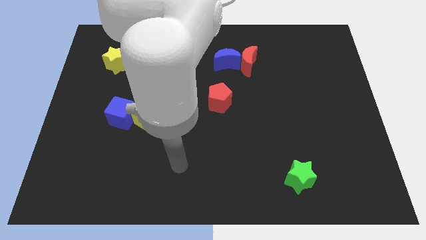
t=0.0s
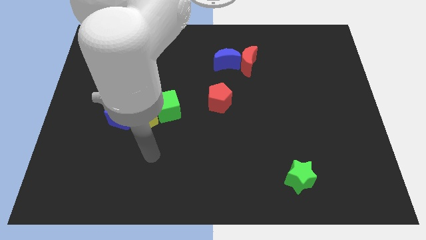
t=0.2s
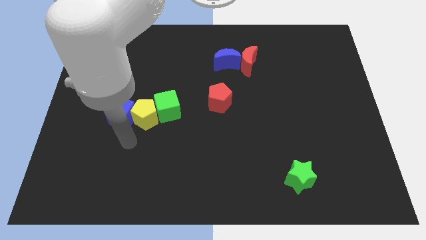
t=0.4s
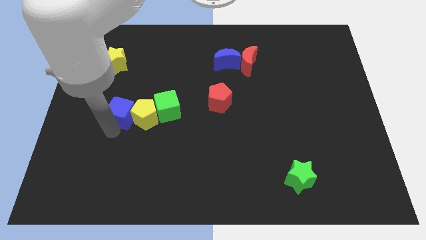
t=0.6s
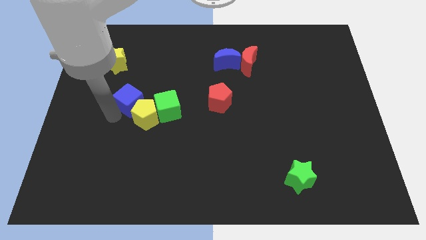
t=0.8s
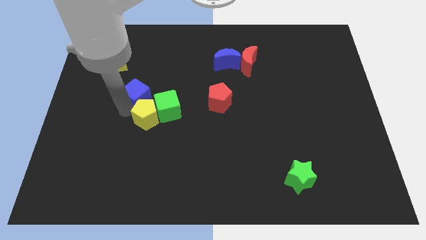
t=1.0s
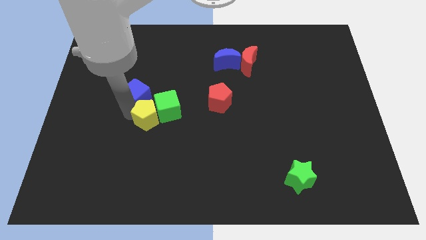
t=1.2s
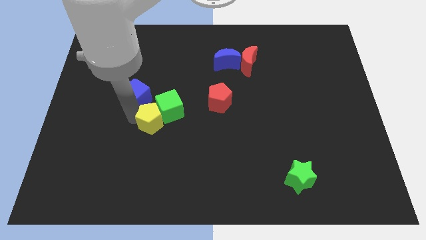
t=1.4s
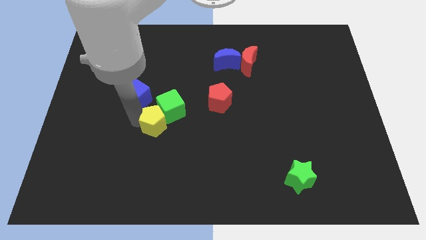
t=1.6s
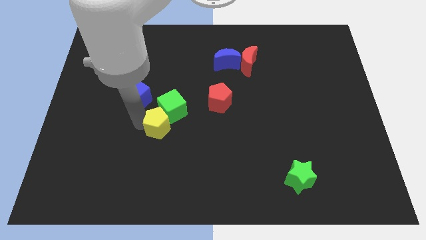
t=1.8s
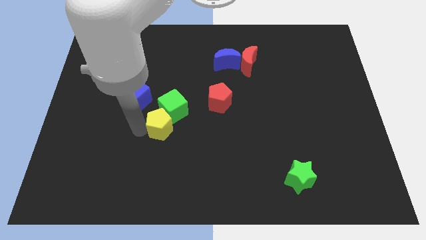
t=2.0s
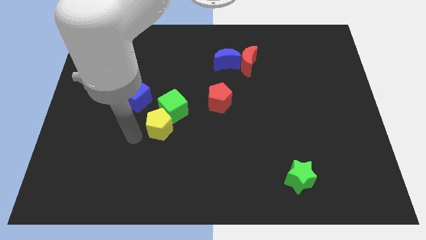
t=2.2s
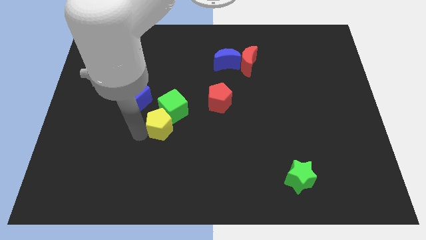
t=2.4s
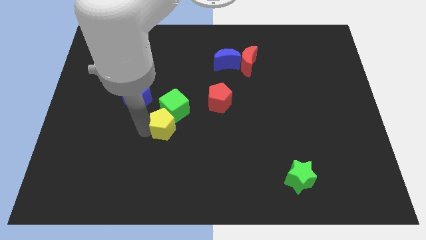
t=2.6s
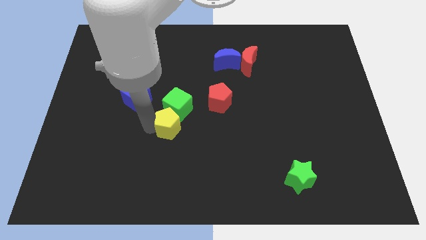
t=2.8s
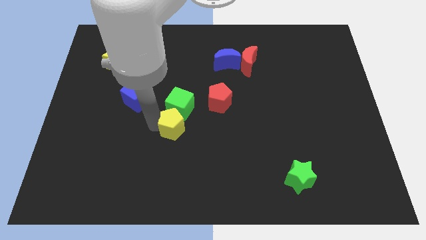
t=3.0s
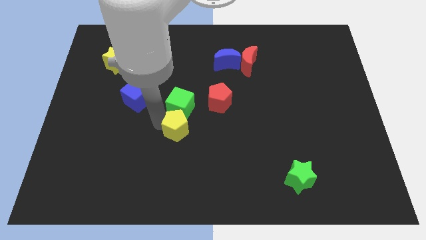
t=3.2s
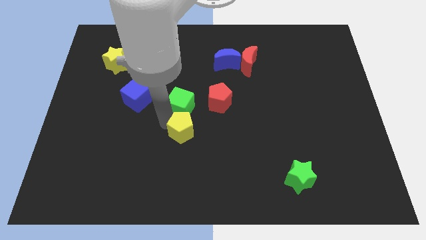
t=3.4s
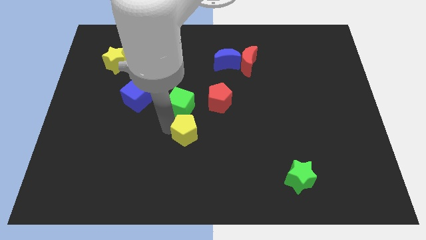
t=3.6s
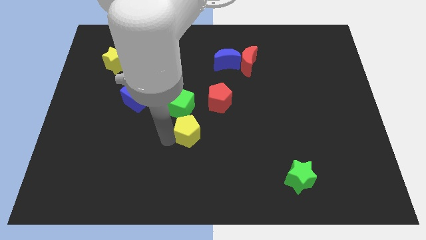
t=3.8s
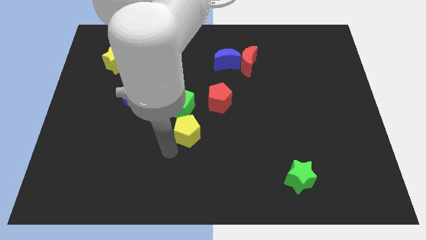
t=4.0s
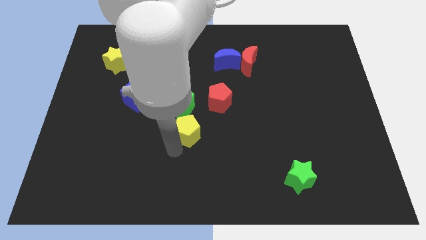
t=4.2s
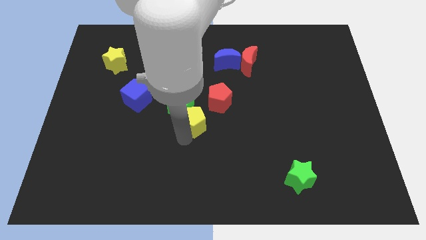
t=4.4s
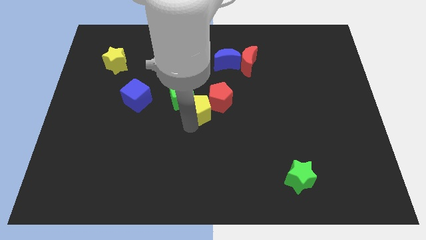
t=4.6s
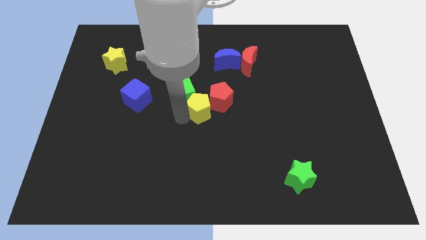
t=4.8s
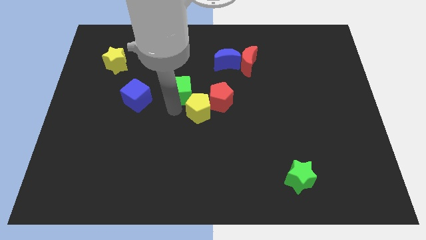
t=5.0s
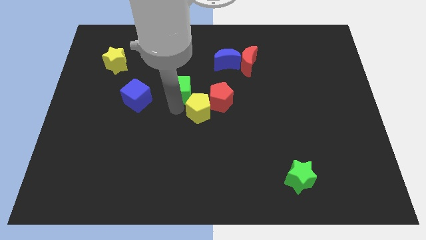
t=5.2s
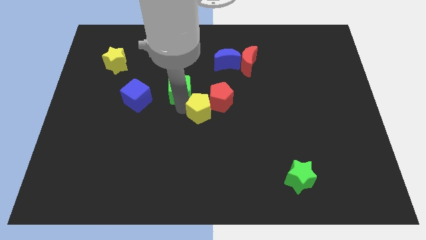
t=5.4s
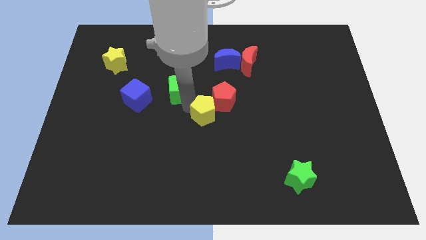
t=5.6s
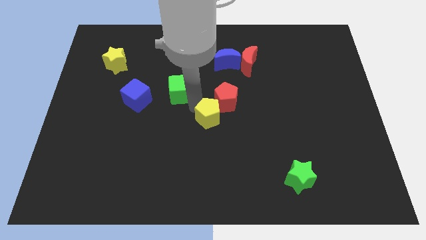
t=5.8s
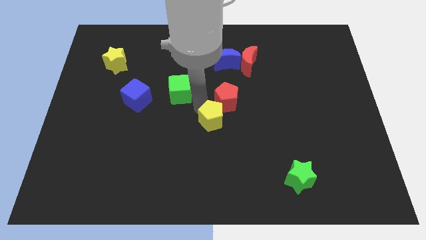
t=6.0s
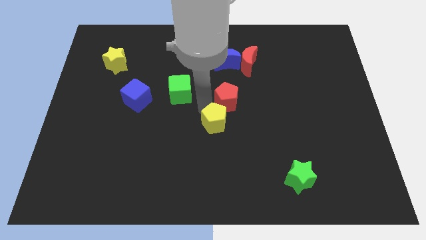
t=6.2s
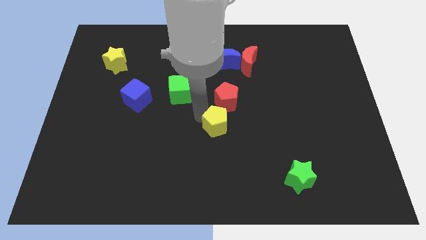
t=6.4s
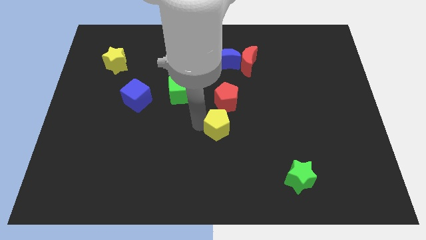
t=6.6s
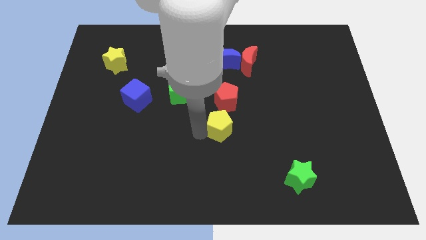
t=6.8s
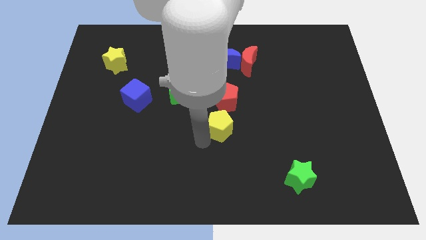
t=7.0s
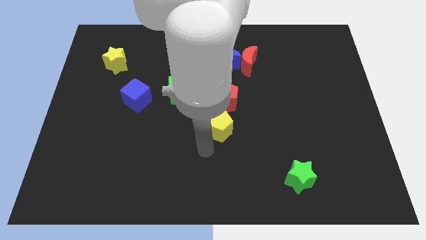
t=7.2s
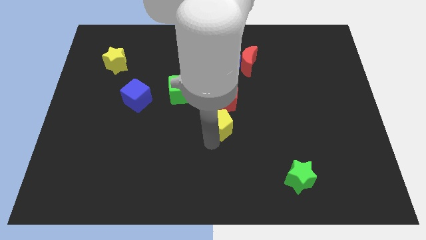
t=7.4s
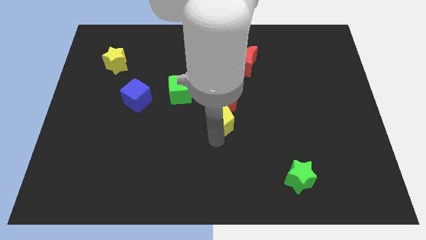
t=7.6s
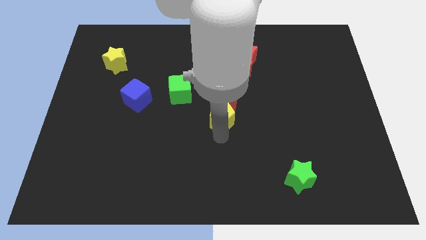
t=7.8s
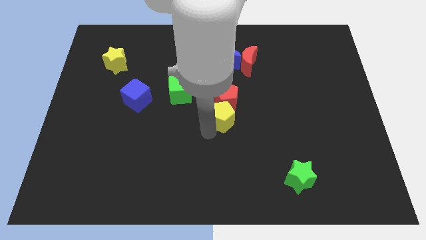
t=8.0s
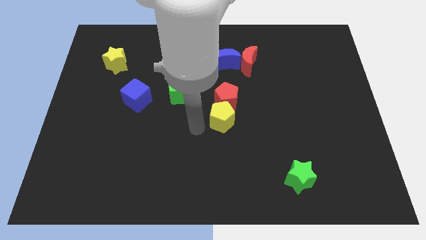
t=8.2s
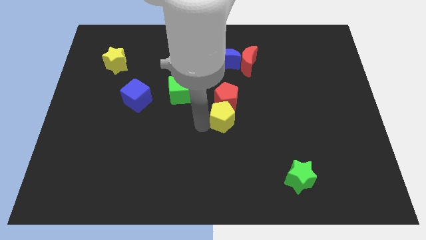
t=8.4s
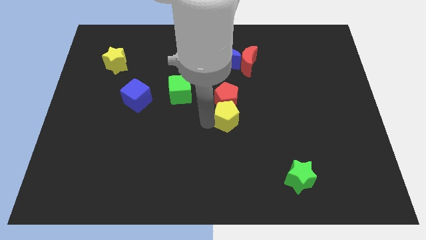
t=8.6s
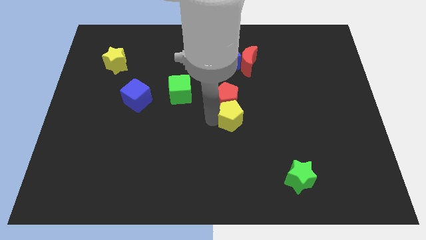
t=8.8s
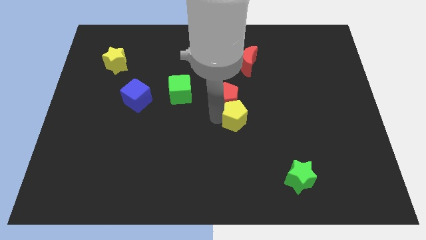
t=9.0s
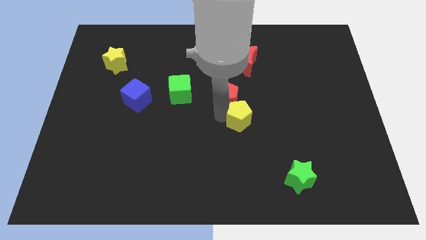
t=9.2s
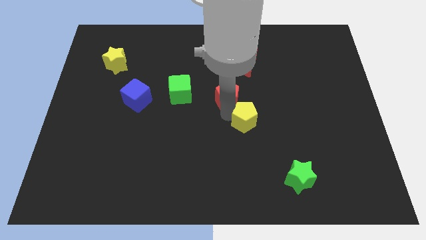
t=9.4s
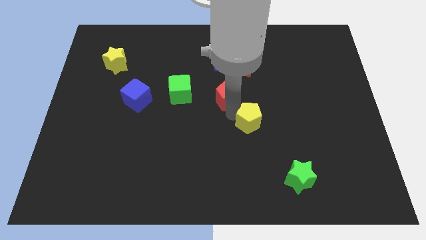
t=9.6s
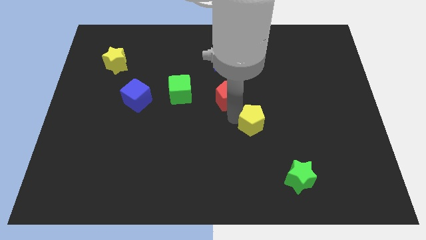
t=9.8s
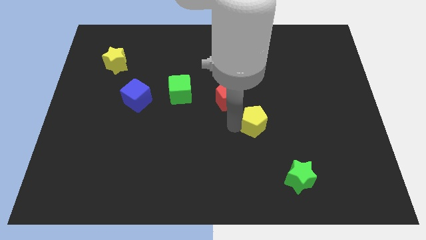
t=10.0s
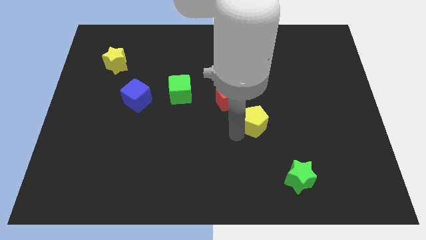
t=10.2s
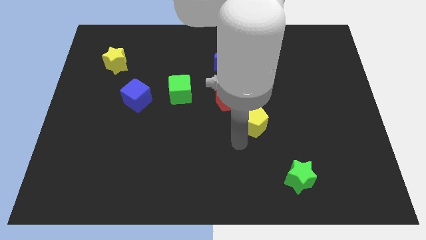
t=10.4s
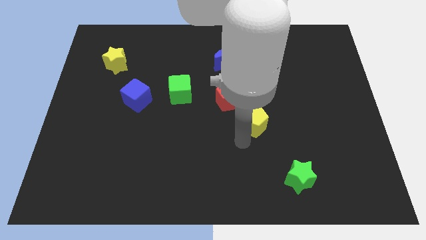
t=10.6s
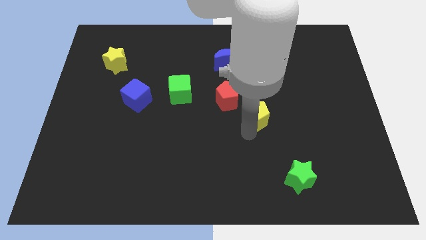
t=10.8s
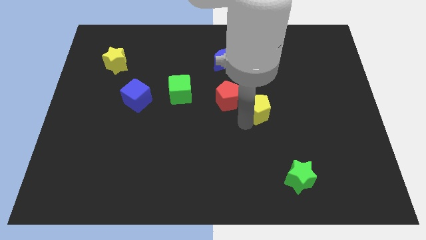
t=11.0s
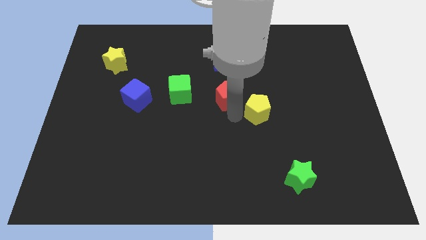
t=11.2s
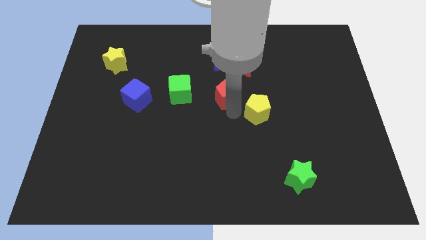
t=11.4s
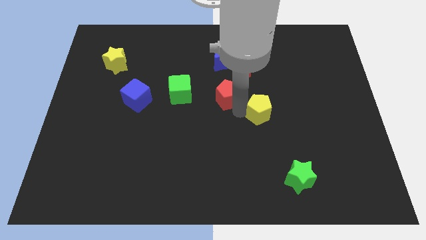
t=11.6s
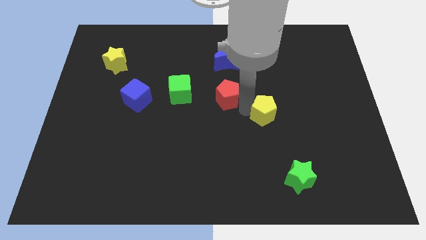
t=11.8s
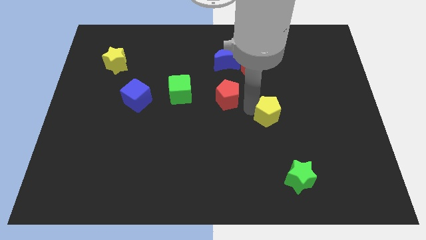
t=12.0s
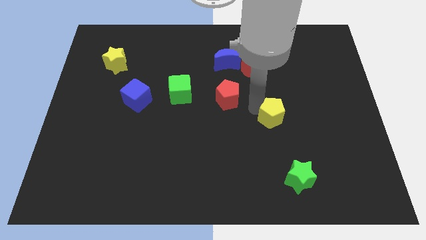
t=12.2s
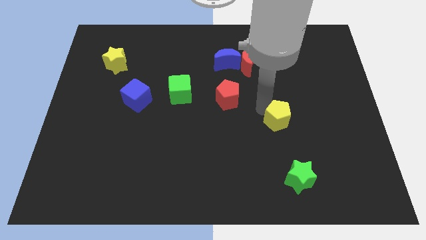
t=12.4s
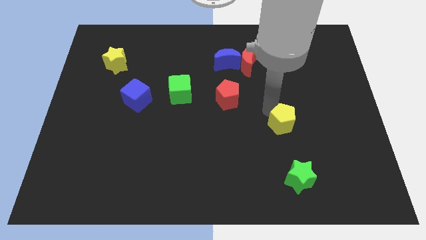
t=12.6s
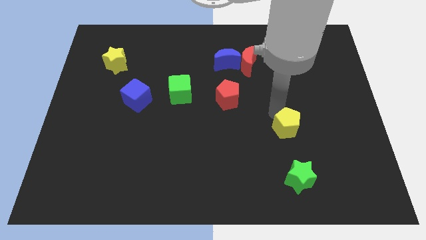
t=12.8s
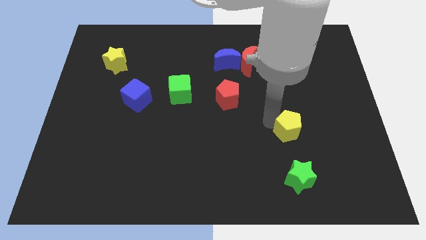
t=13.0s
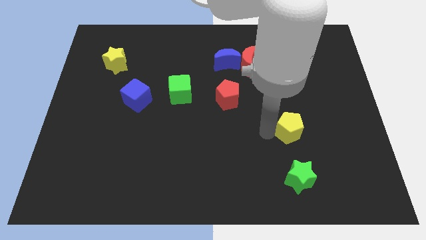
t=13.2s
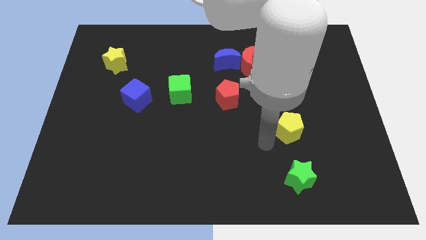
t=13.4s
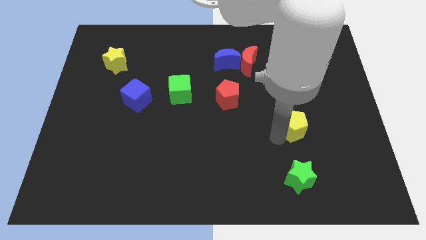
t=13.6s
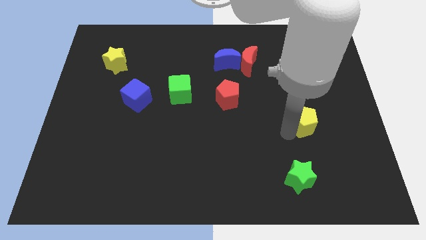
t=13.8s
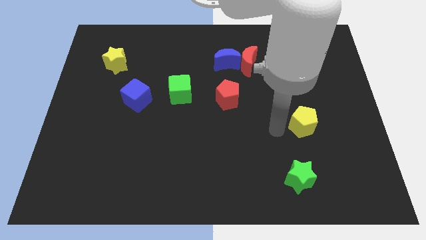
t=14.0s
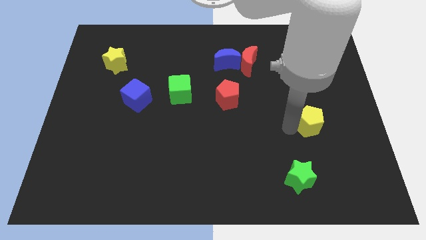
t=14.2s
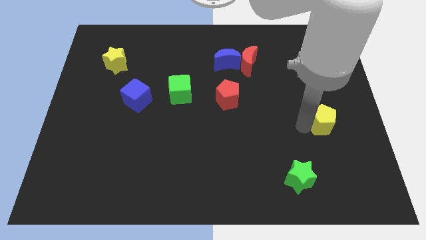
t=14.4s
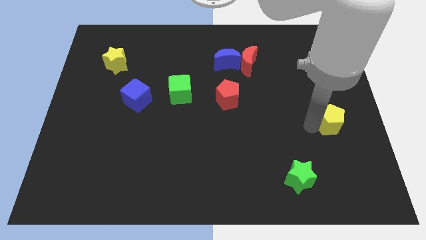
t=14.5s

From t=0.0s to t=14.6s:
push the yellow pentagon to the center right
